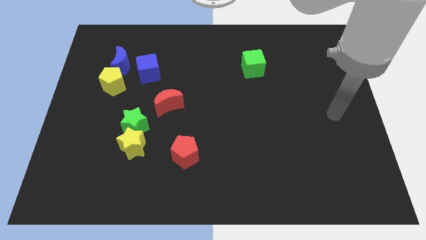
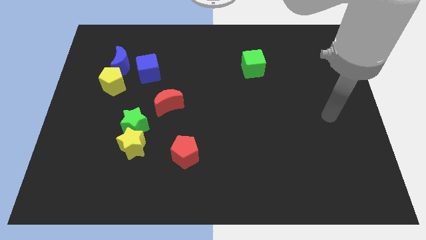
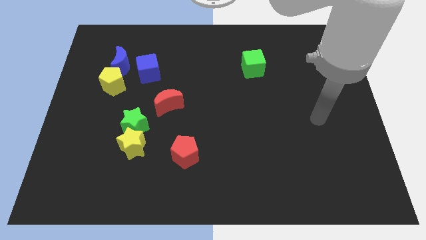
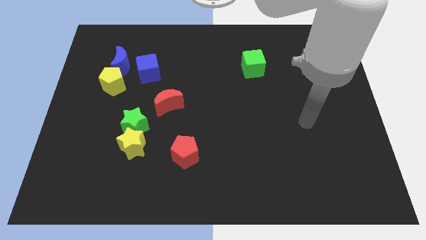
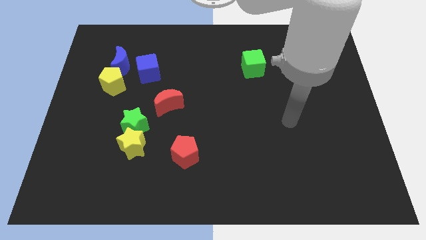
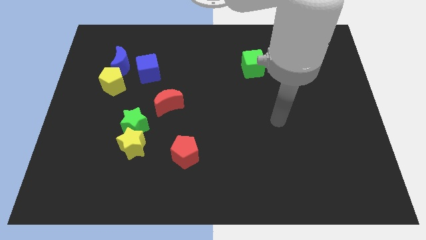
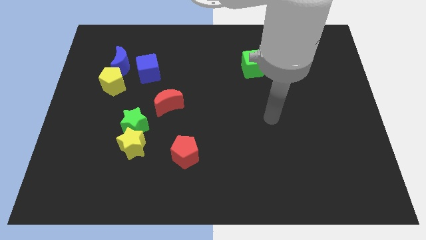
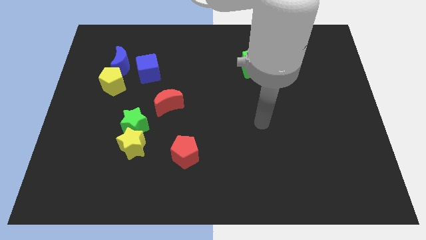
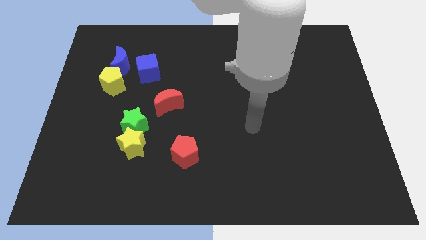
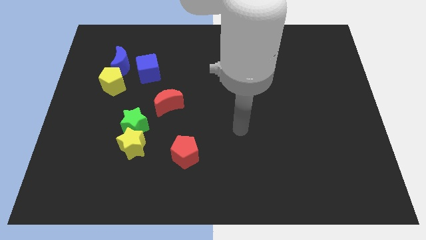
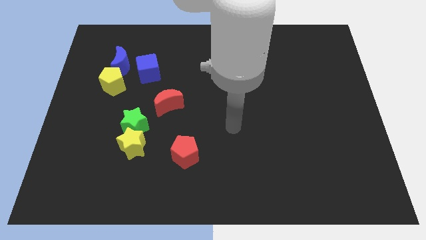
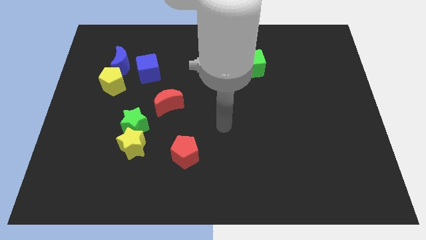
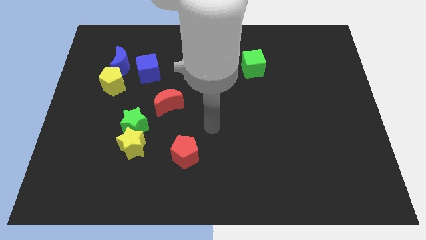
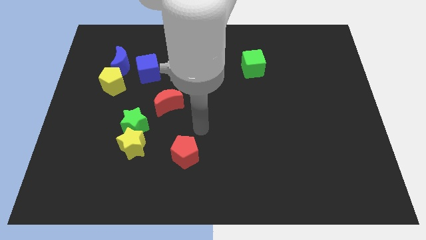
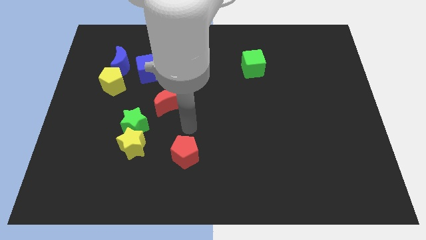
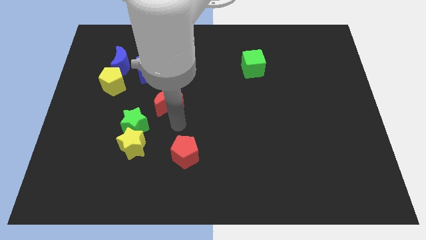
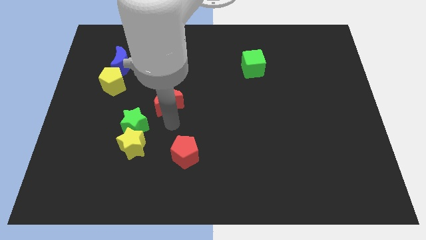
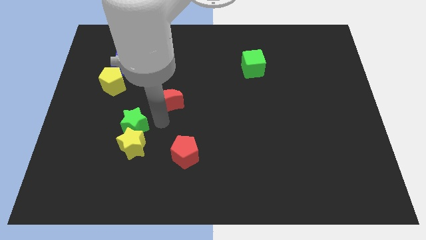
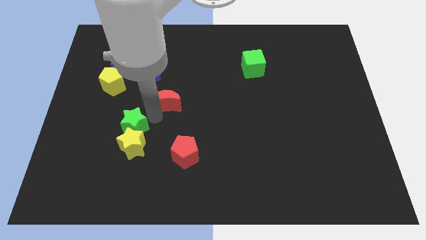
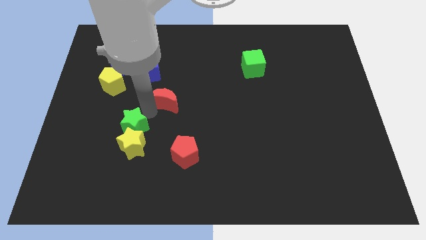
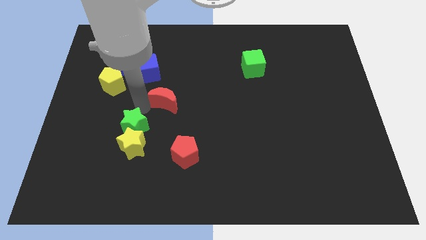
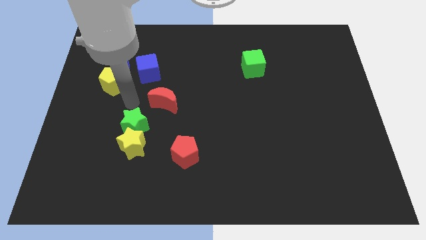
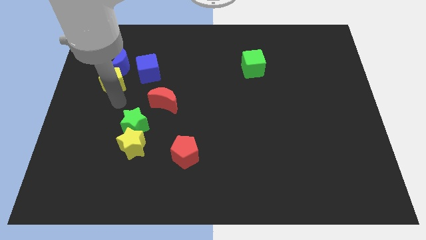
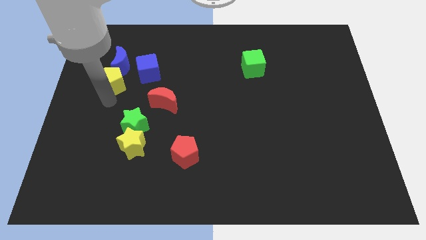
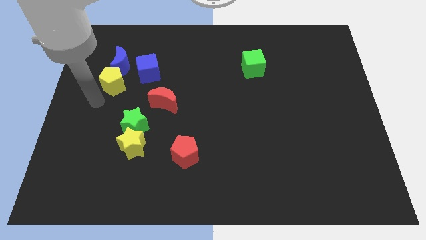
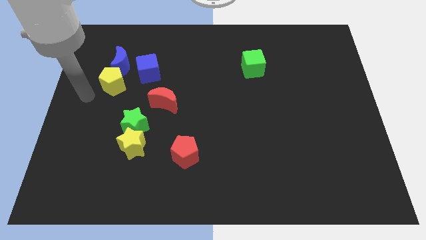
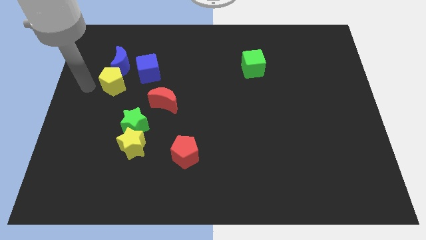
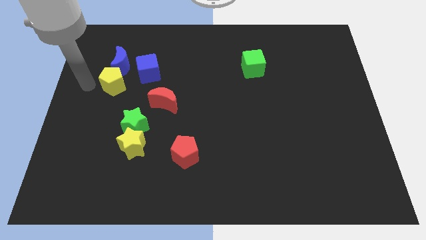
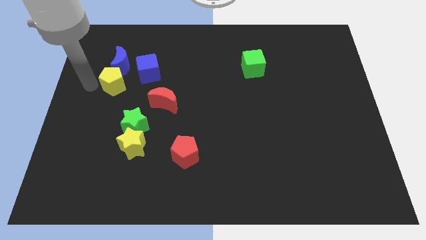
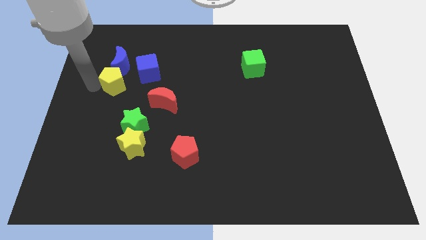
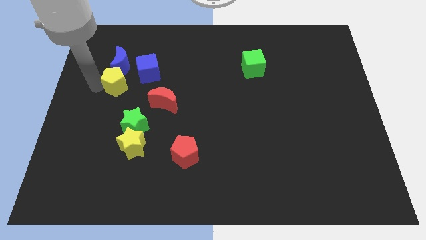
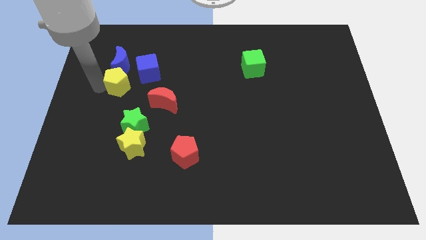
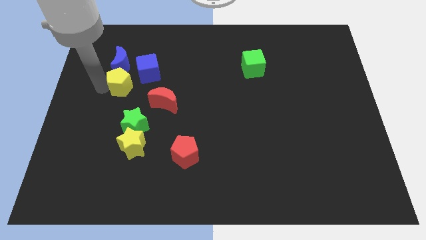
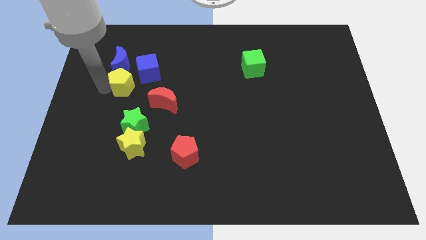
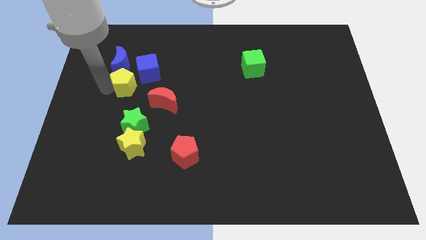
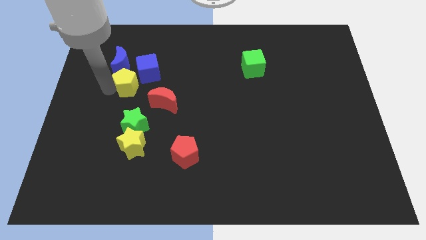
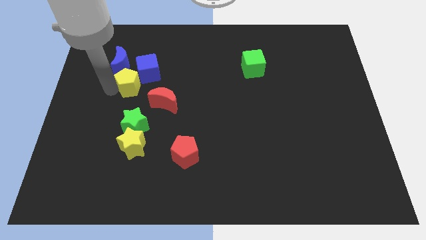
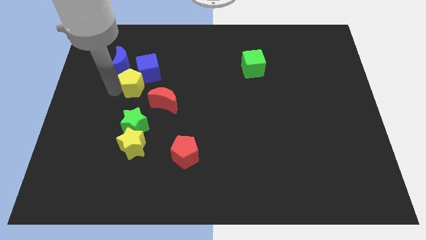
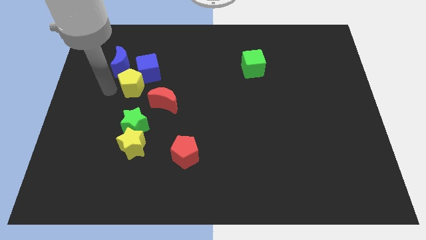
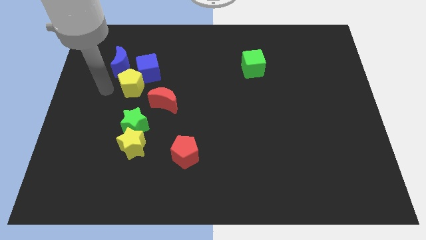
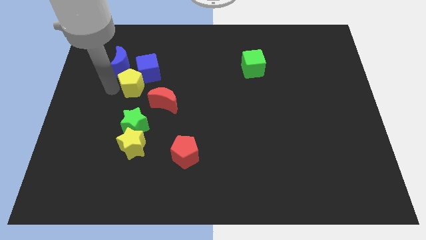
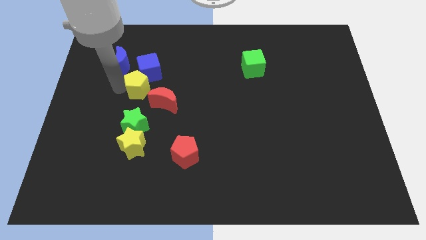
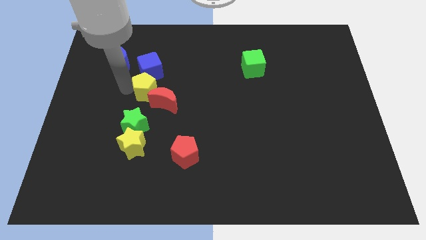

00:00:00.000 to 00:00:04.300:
slide the yellow pentagon somewhat to the right

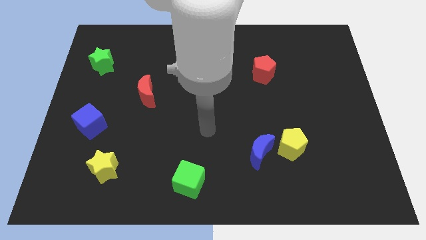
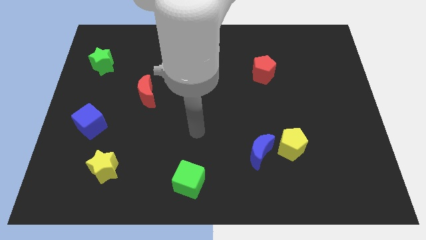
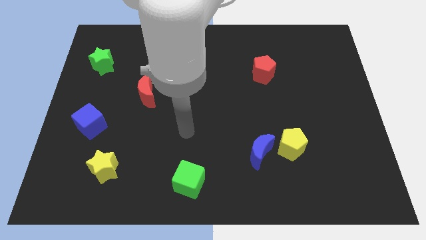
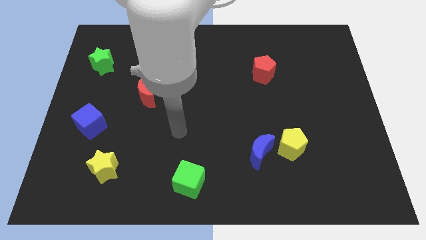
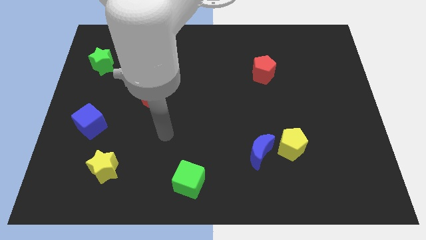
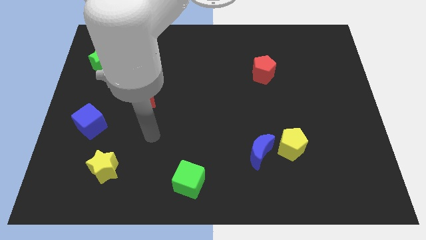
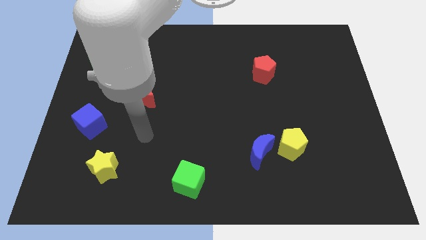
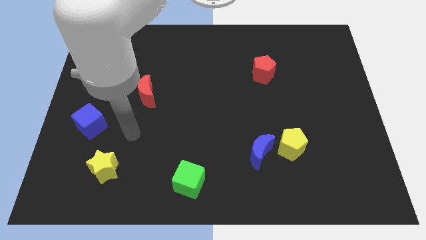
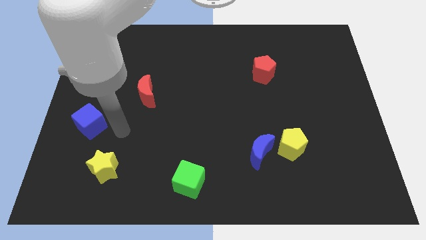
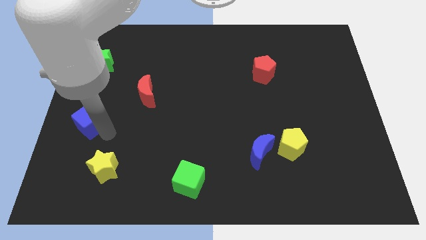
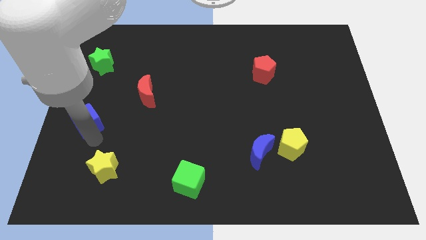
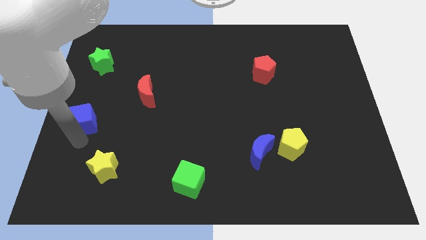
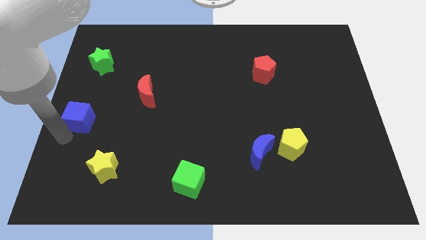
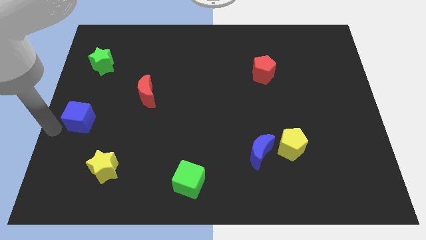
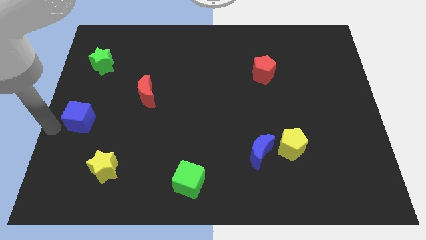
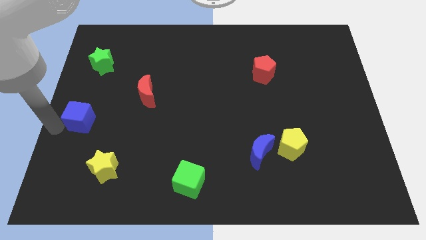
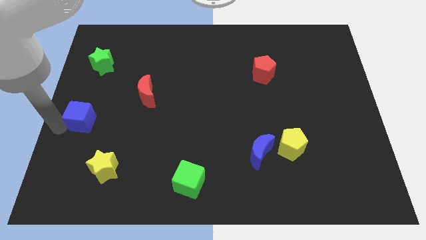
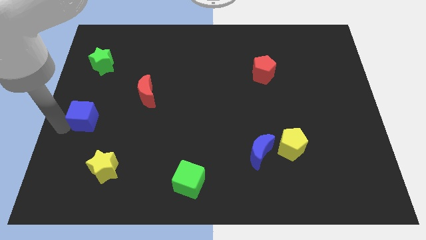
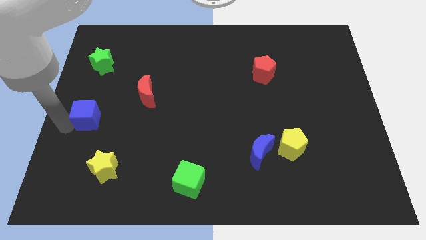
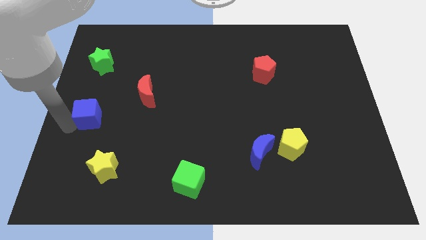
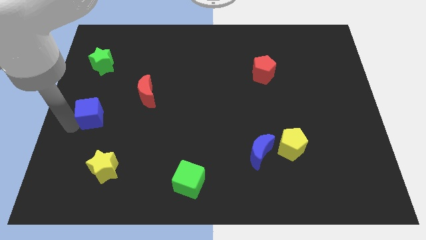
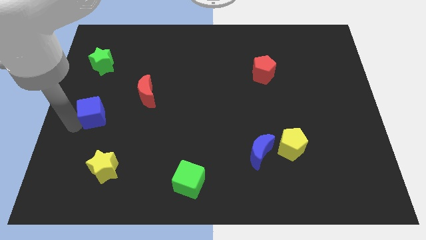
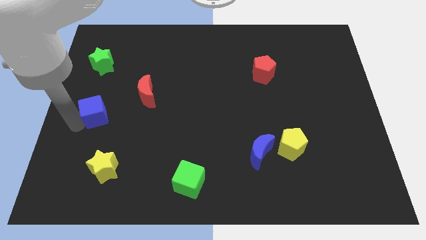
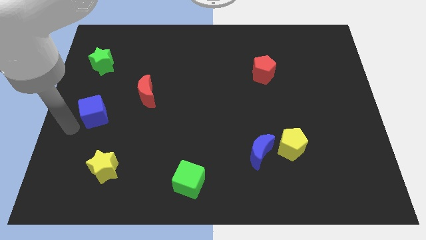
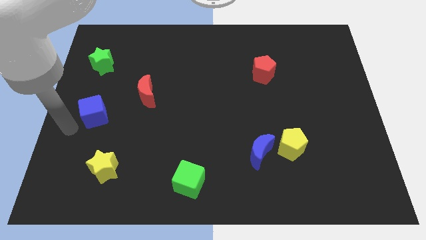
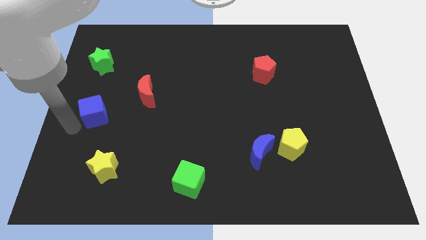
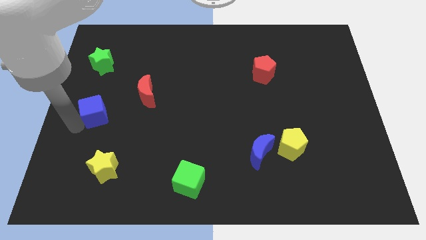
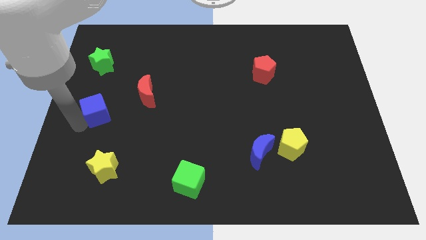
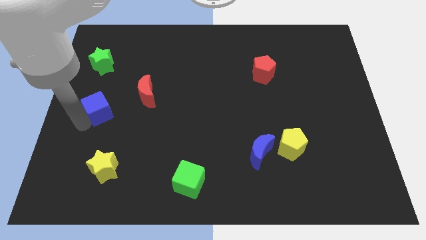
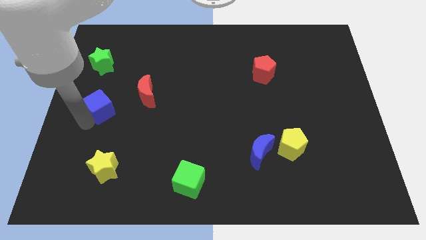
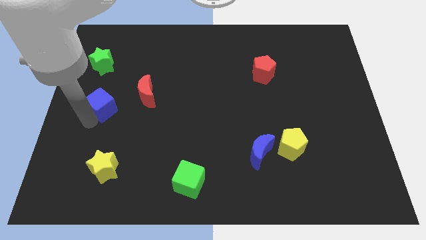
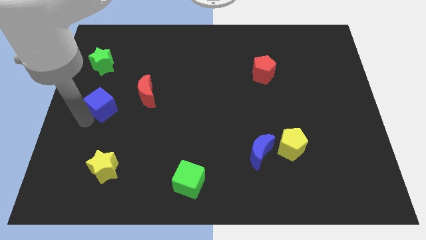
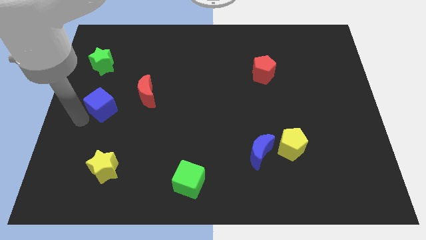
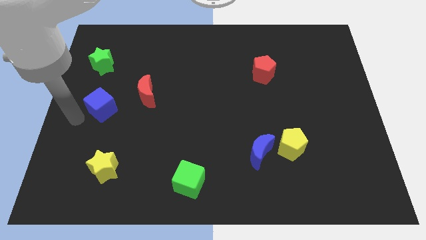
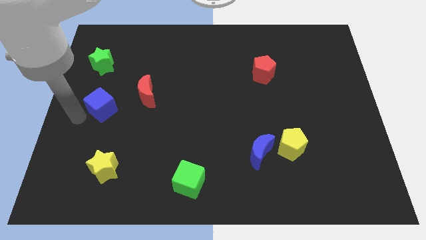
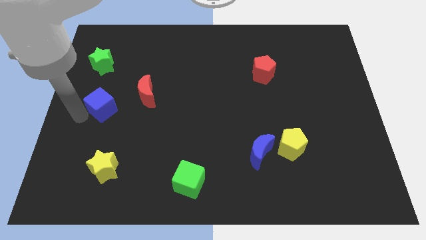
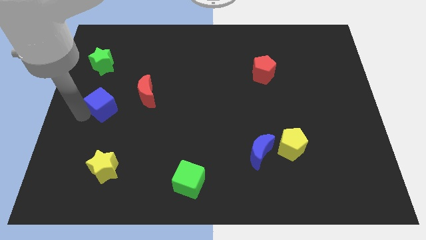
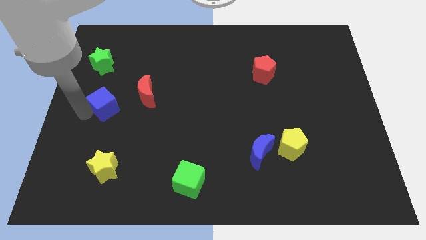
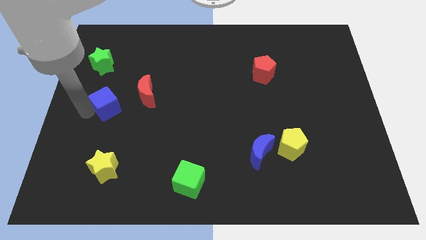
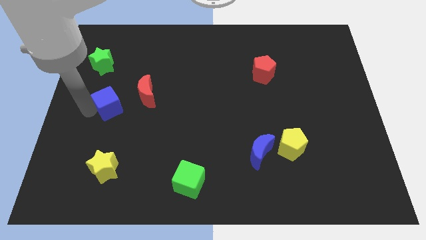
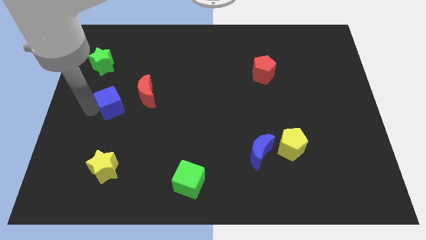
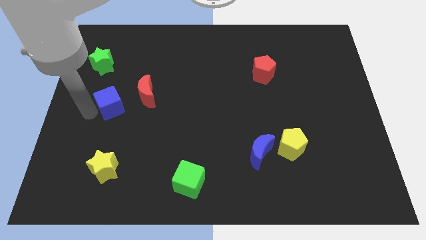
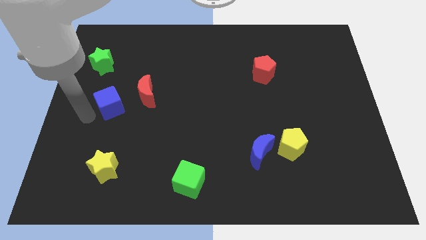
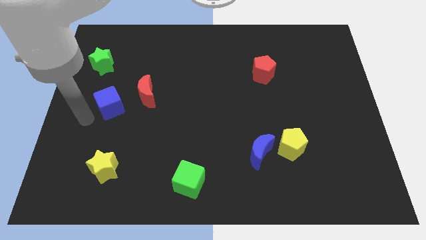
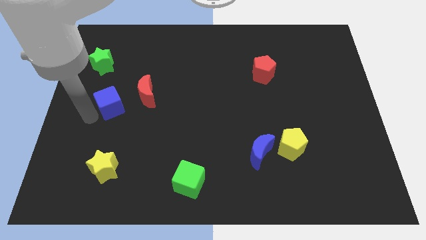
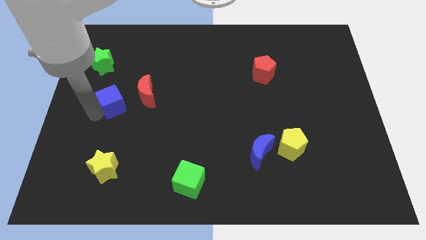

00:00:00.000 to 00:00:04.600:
push the blue cube somewhat upwards and to the right diagonally
